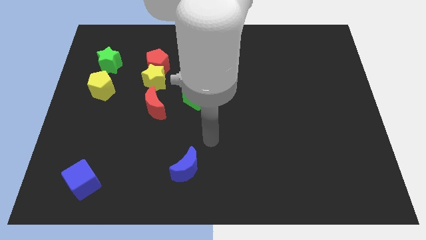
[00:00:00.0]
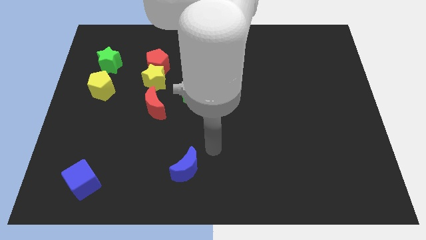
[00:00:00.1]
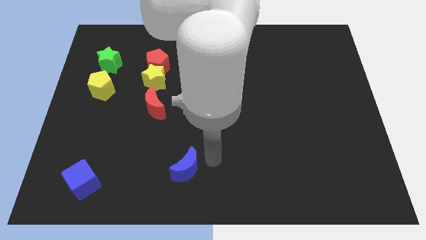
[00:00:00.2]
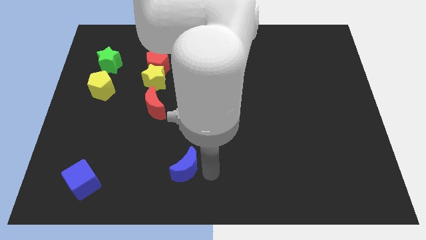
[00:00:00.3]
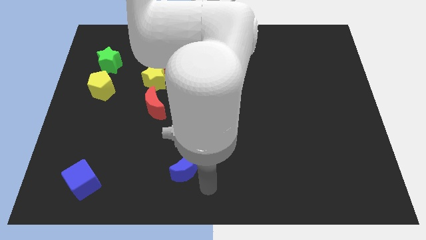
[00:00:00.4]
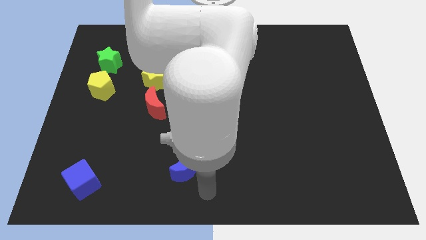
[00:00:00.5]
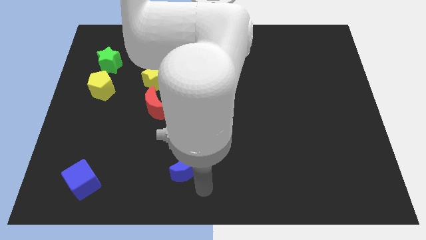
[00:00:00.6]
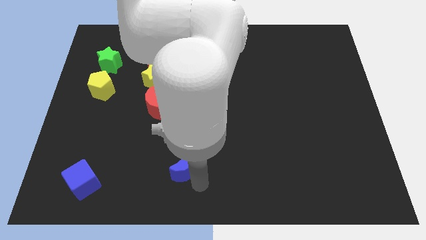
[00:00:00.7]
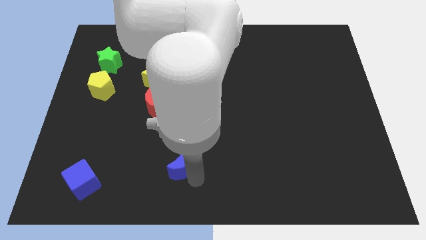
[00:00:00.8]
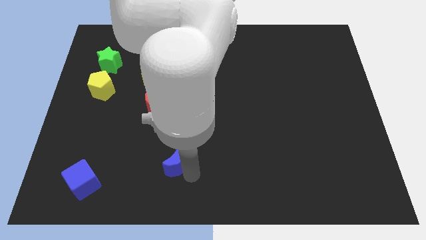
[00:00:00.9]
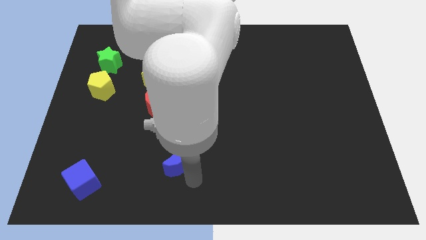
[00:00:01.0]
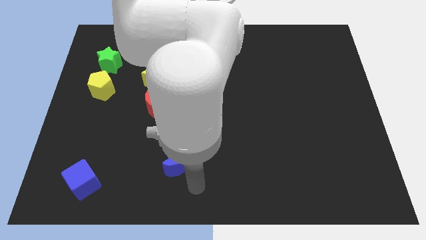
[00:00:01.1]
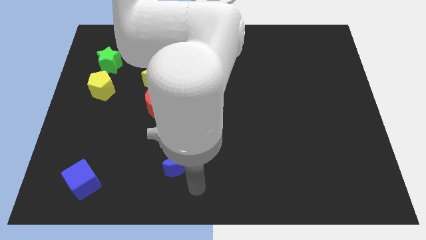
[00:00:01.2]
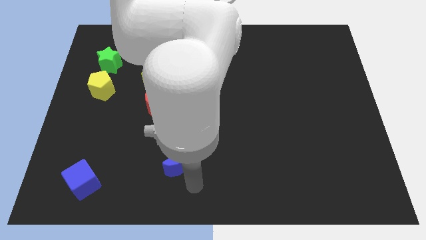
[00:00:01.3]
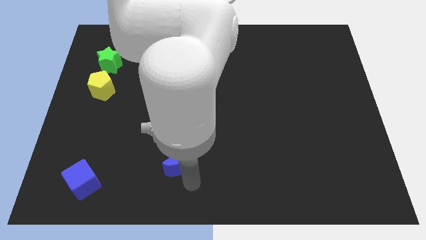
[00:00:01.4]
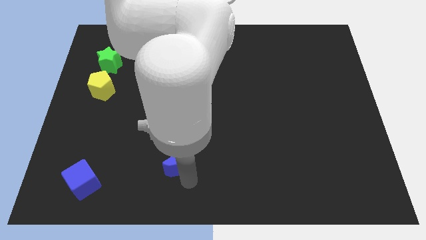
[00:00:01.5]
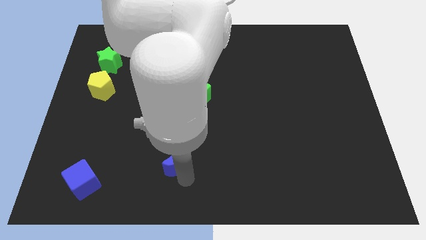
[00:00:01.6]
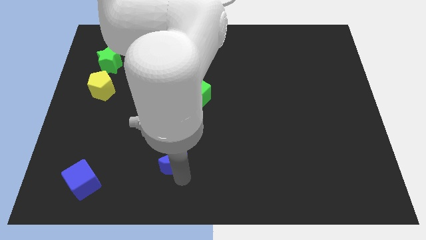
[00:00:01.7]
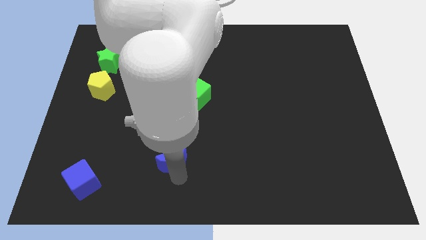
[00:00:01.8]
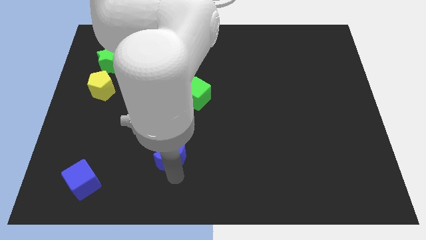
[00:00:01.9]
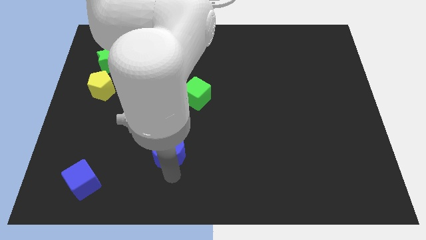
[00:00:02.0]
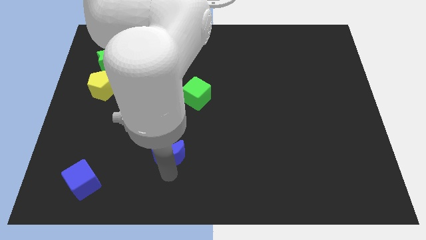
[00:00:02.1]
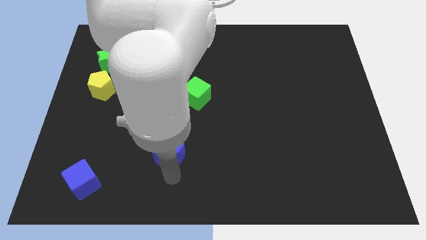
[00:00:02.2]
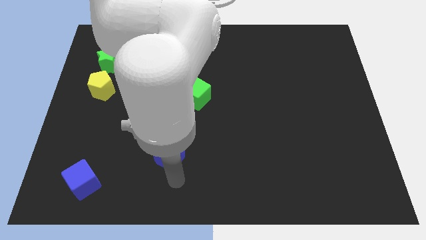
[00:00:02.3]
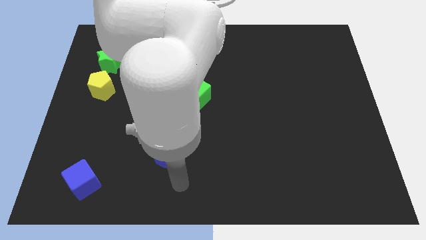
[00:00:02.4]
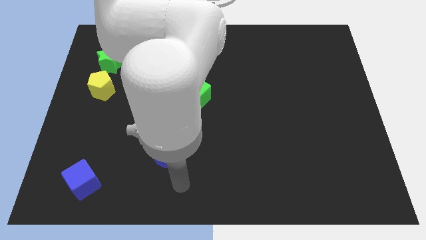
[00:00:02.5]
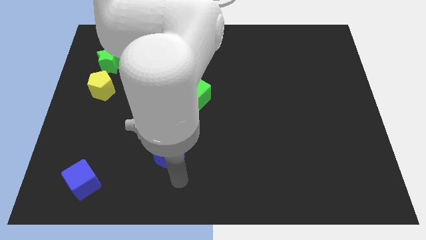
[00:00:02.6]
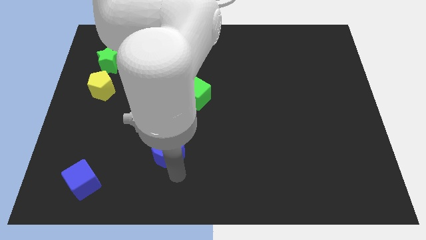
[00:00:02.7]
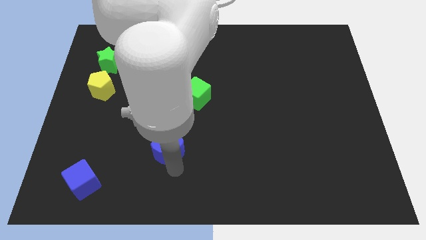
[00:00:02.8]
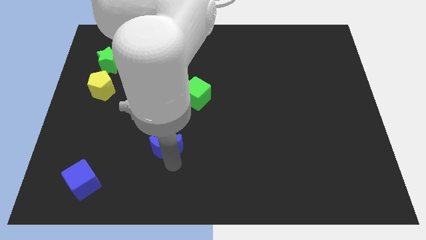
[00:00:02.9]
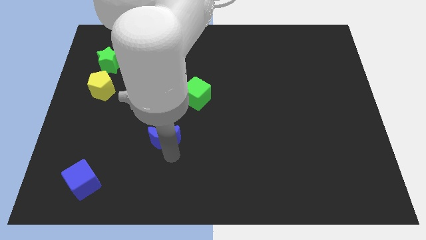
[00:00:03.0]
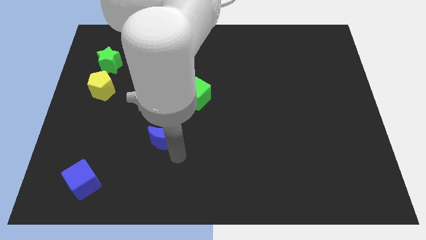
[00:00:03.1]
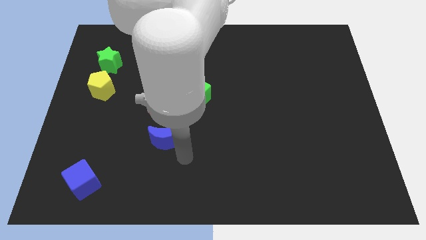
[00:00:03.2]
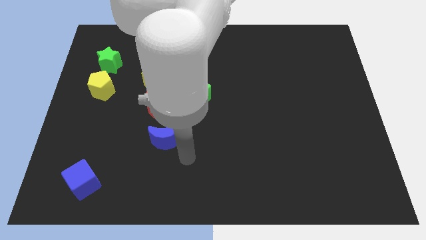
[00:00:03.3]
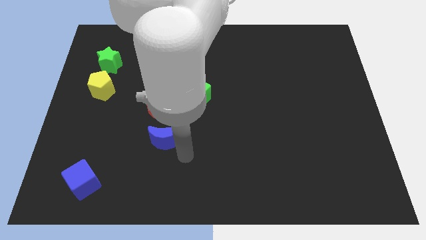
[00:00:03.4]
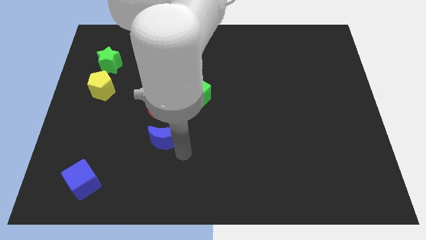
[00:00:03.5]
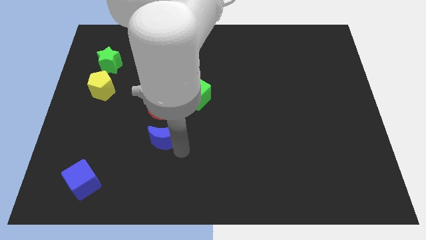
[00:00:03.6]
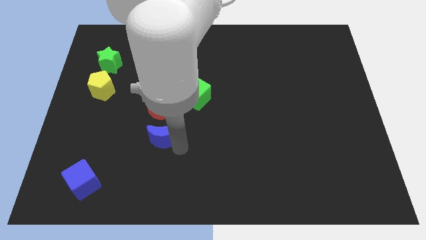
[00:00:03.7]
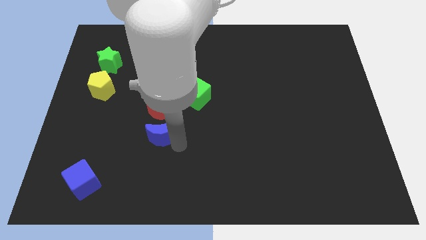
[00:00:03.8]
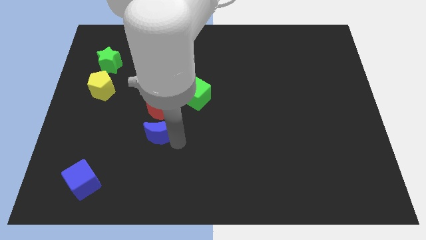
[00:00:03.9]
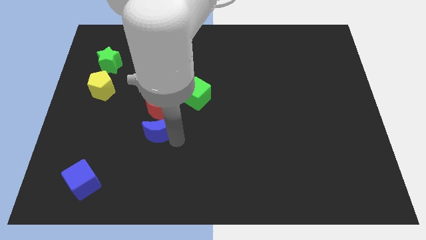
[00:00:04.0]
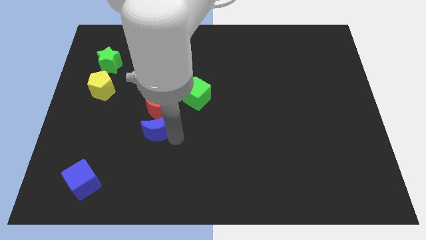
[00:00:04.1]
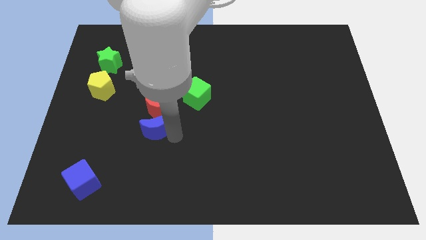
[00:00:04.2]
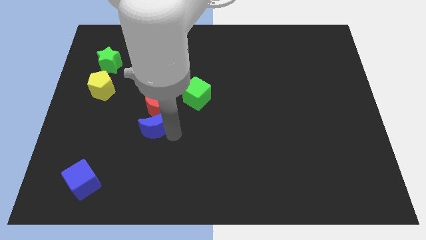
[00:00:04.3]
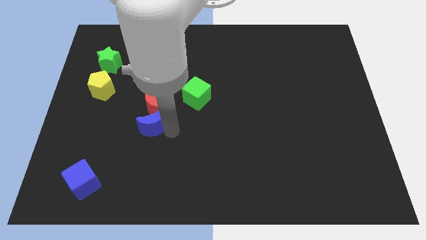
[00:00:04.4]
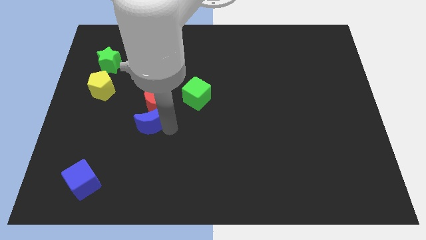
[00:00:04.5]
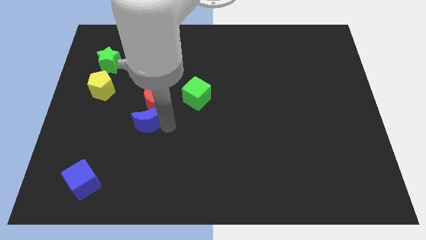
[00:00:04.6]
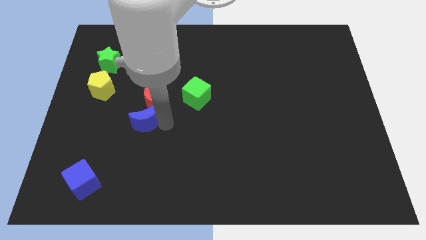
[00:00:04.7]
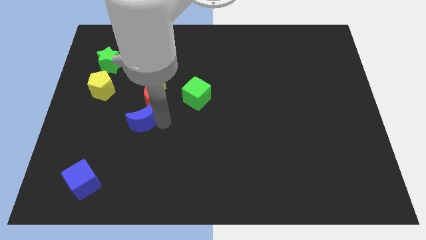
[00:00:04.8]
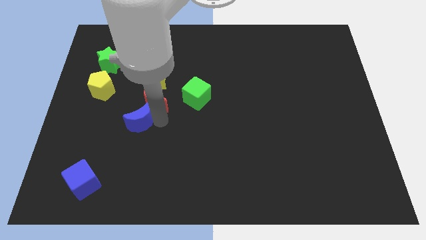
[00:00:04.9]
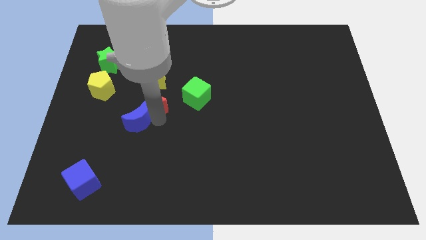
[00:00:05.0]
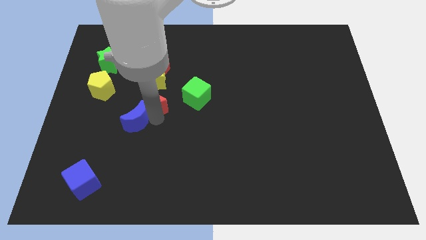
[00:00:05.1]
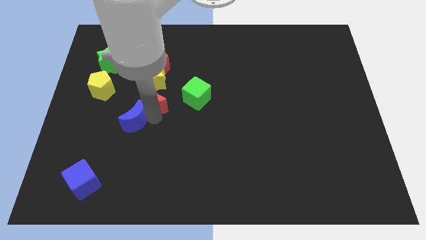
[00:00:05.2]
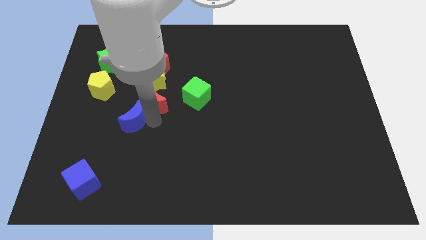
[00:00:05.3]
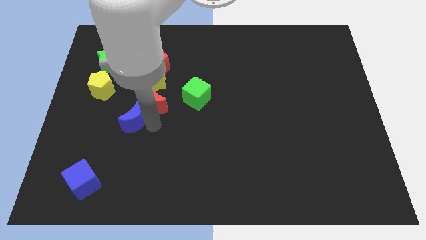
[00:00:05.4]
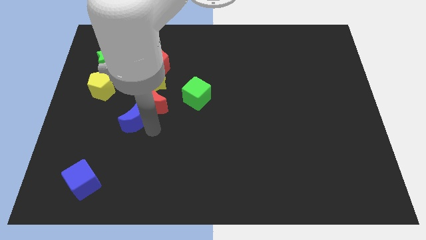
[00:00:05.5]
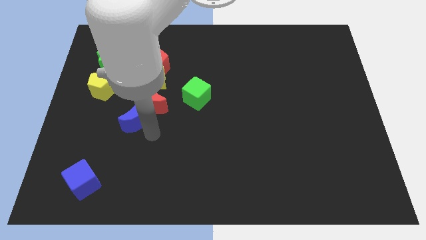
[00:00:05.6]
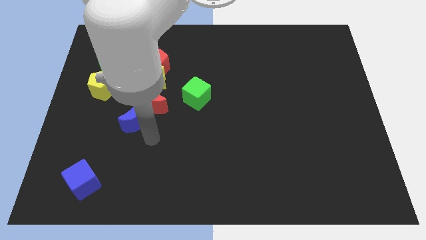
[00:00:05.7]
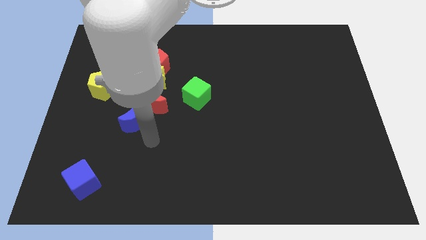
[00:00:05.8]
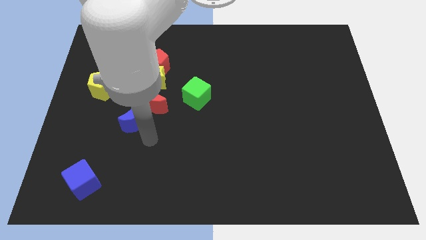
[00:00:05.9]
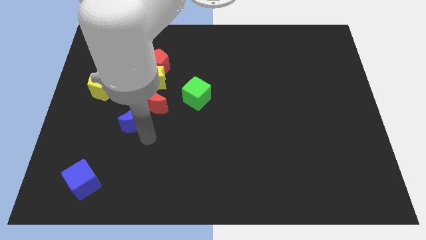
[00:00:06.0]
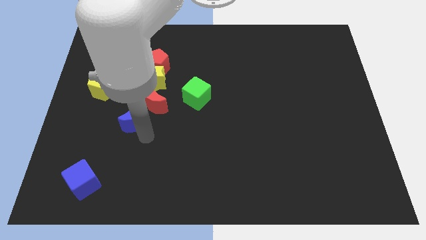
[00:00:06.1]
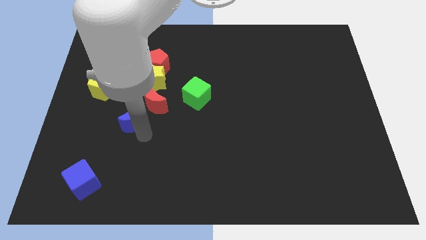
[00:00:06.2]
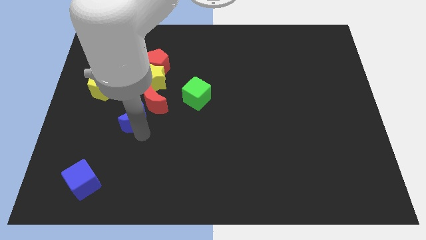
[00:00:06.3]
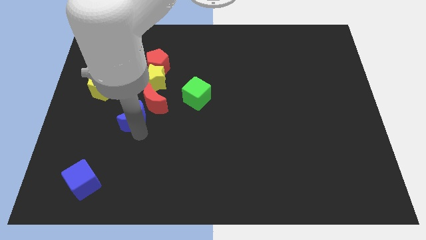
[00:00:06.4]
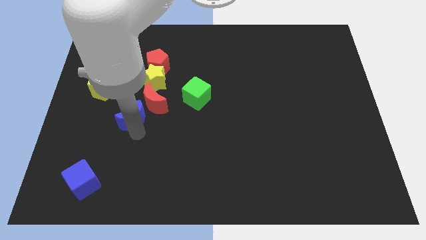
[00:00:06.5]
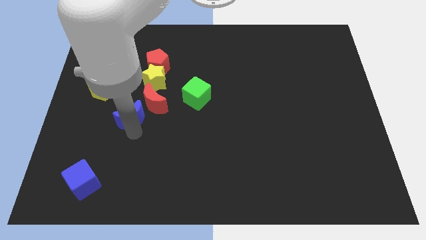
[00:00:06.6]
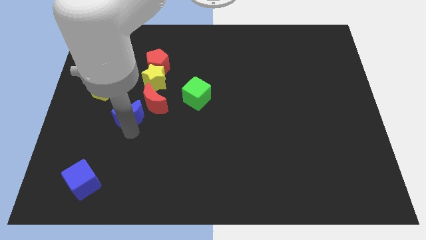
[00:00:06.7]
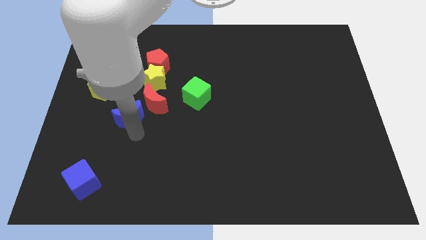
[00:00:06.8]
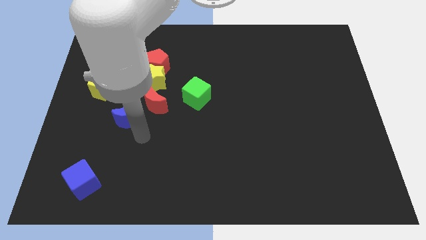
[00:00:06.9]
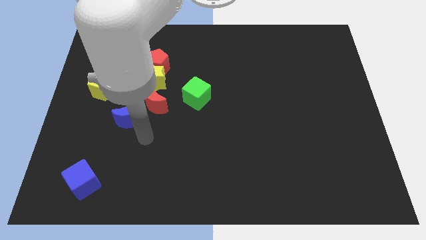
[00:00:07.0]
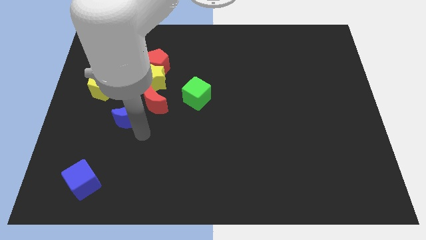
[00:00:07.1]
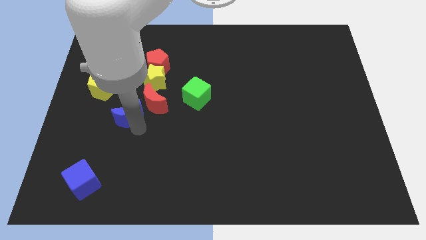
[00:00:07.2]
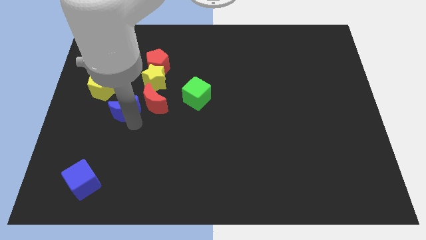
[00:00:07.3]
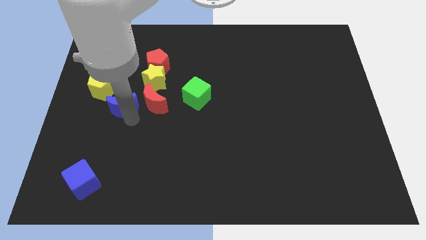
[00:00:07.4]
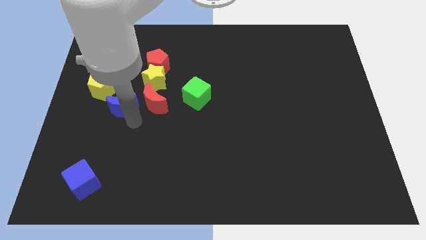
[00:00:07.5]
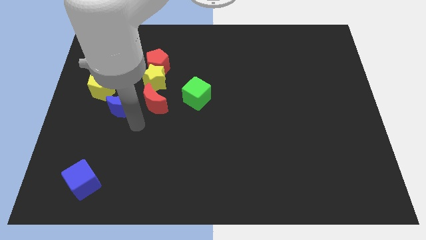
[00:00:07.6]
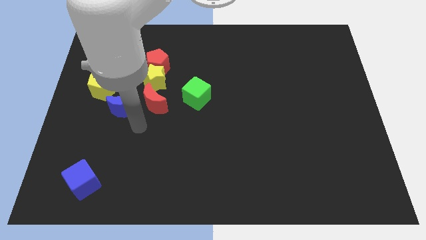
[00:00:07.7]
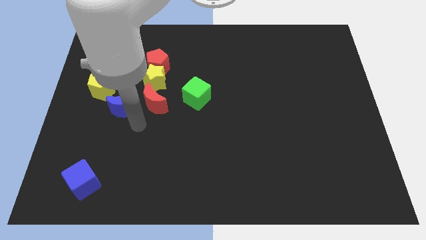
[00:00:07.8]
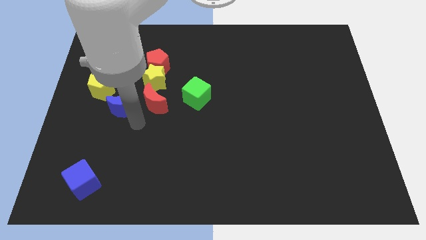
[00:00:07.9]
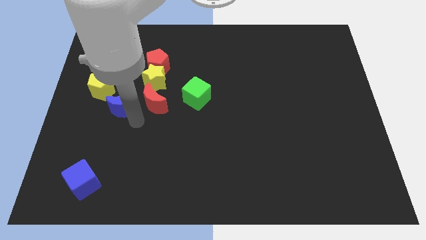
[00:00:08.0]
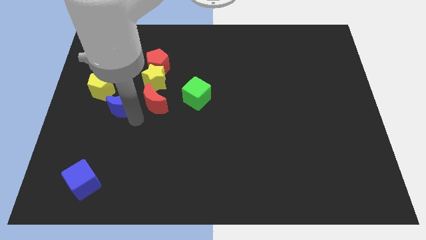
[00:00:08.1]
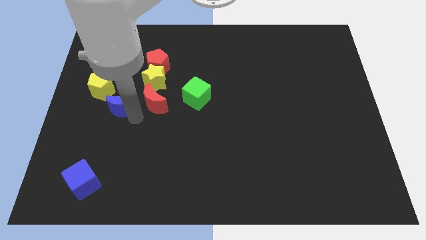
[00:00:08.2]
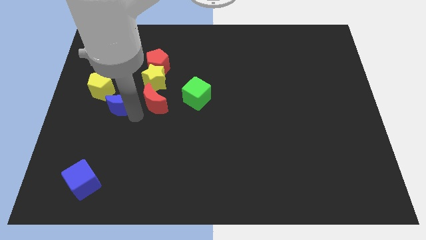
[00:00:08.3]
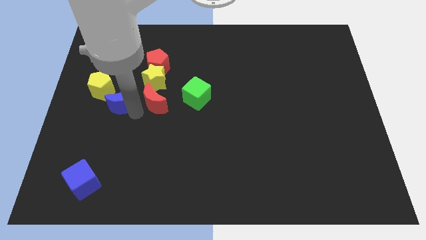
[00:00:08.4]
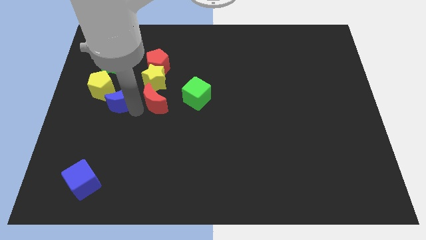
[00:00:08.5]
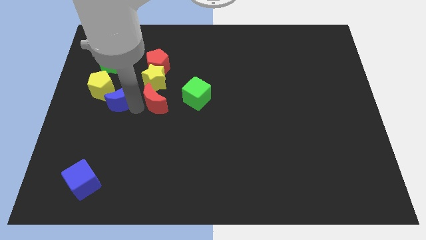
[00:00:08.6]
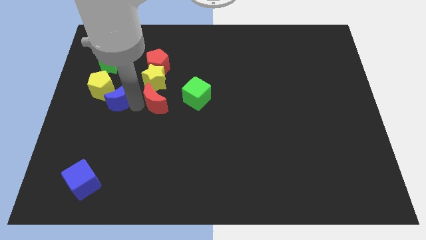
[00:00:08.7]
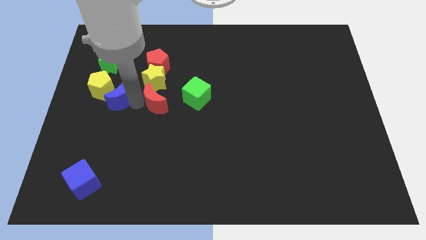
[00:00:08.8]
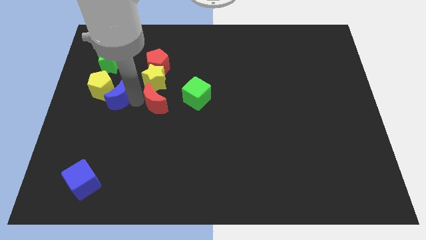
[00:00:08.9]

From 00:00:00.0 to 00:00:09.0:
push the blue moon towards the yellow pentagon
